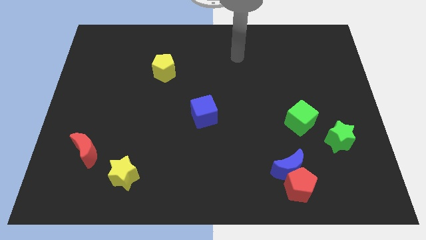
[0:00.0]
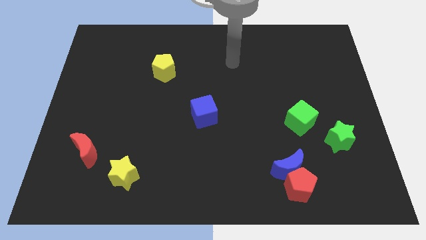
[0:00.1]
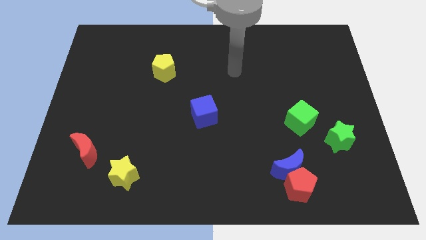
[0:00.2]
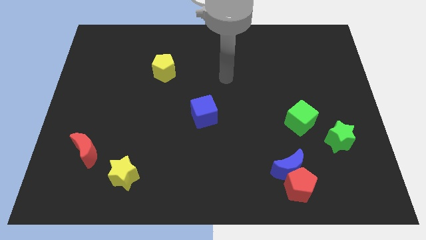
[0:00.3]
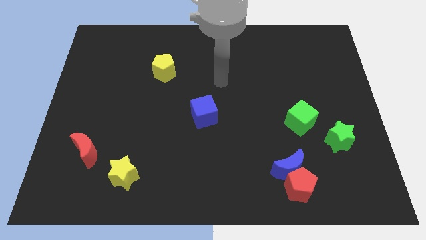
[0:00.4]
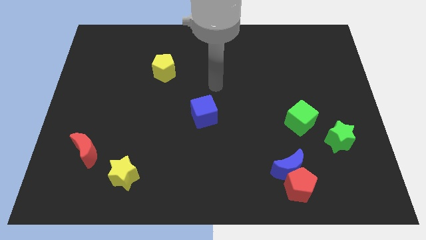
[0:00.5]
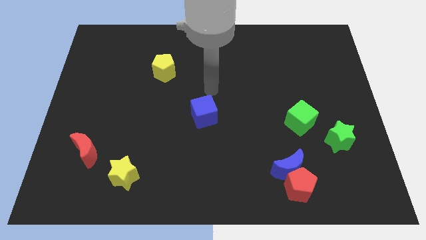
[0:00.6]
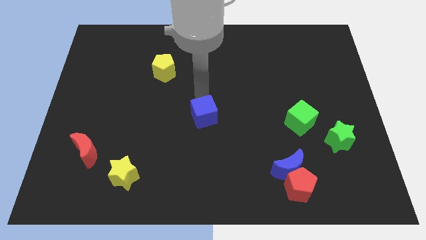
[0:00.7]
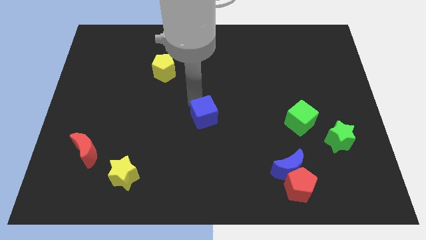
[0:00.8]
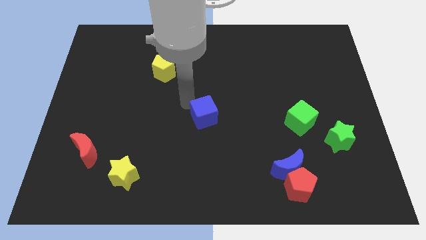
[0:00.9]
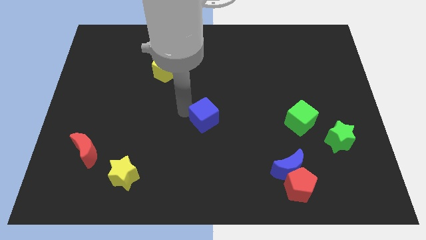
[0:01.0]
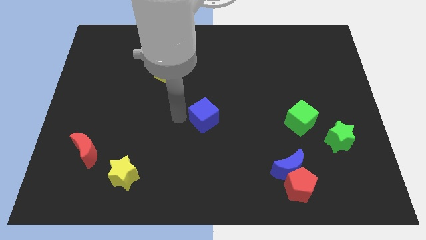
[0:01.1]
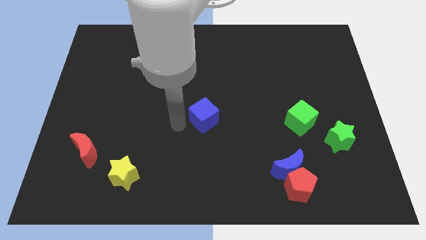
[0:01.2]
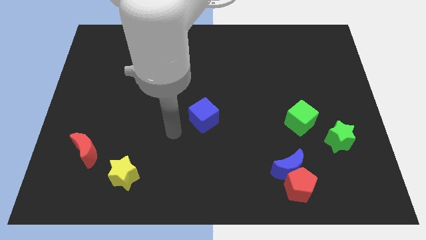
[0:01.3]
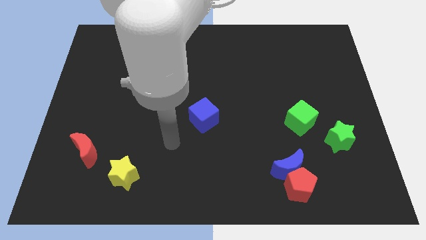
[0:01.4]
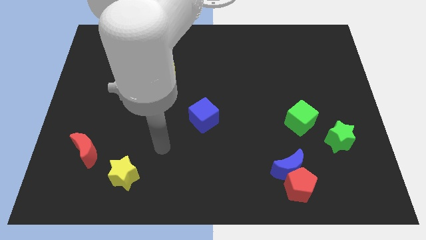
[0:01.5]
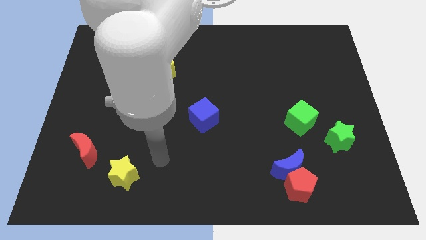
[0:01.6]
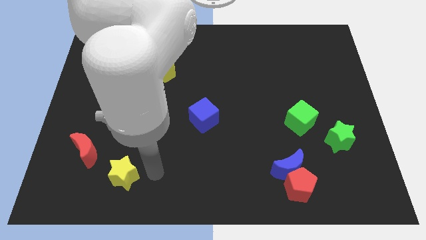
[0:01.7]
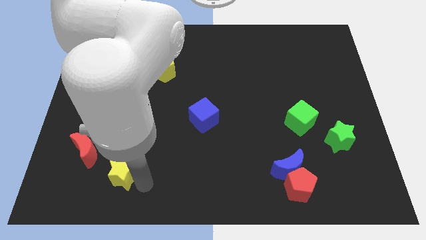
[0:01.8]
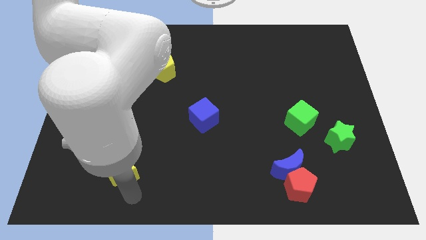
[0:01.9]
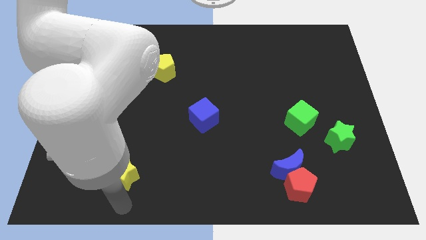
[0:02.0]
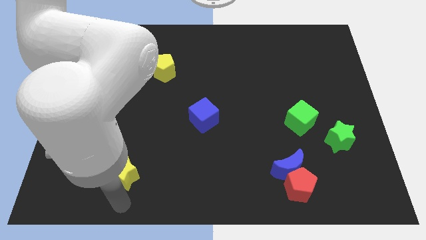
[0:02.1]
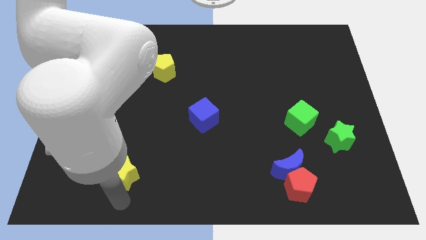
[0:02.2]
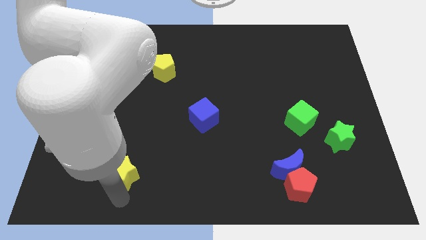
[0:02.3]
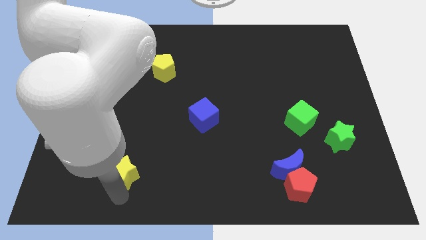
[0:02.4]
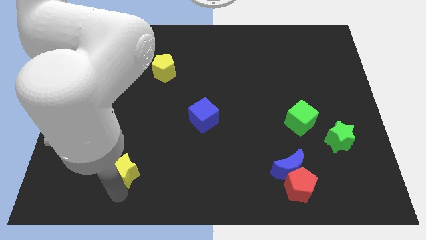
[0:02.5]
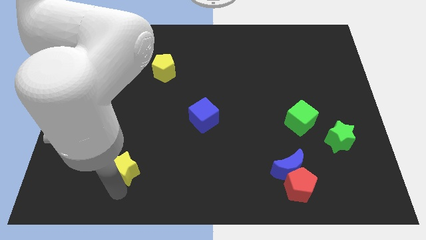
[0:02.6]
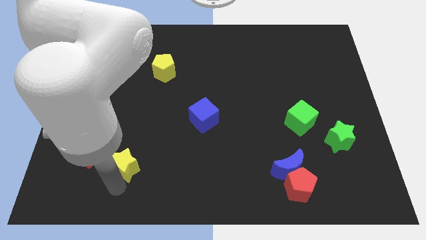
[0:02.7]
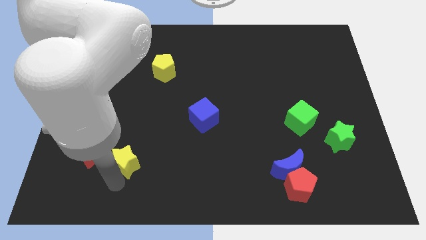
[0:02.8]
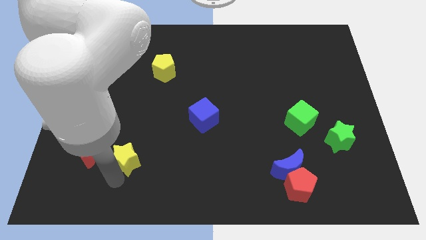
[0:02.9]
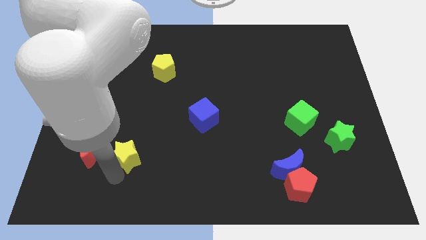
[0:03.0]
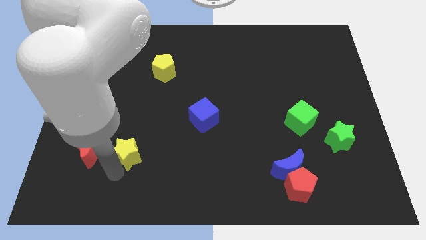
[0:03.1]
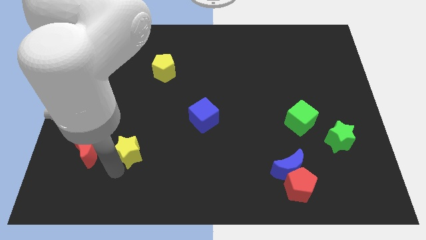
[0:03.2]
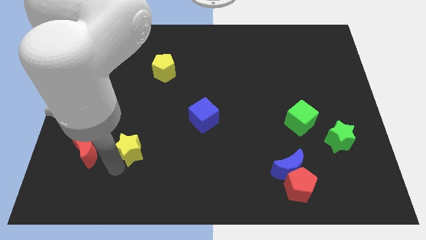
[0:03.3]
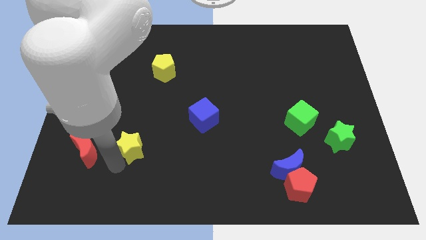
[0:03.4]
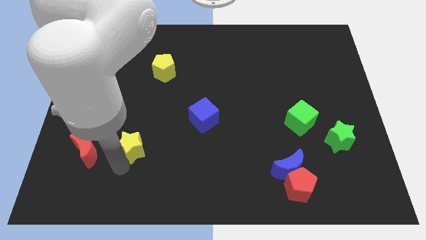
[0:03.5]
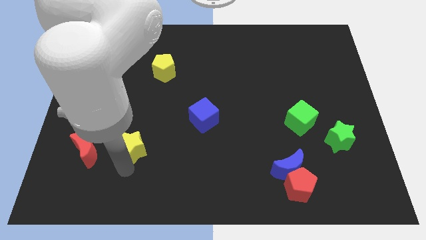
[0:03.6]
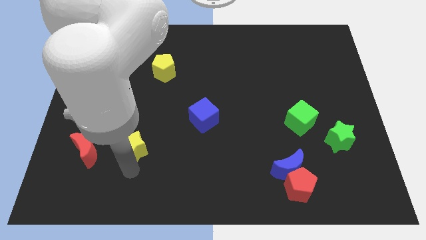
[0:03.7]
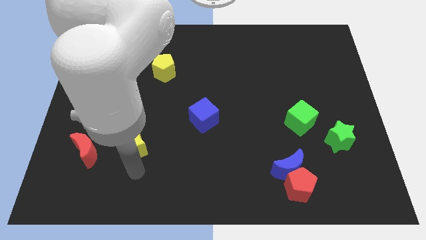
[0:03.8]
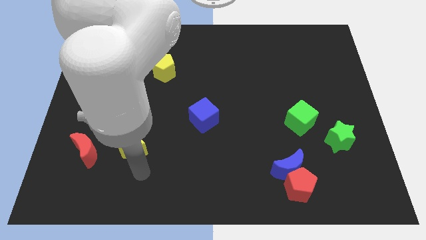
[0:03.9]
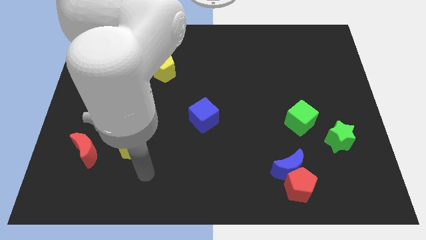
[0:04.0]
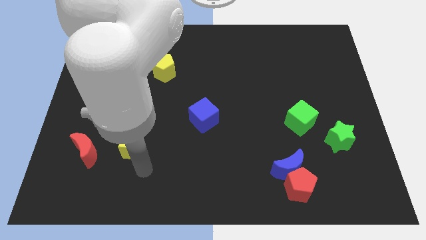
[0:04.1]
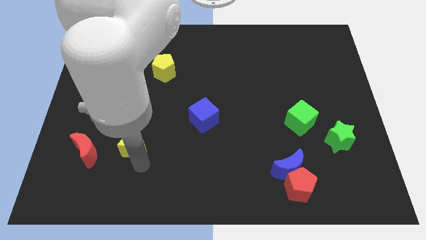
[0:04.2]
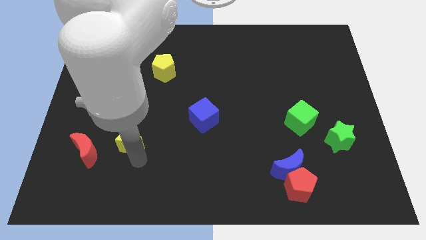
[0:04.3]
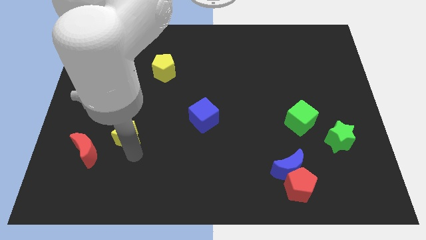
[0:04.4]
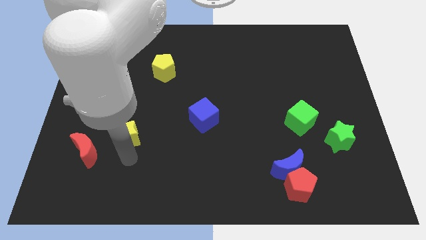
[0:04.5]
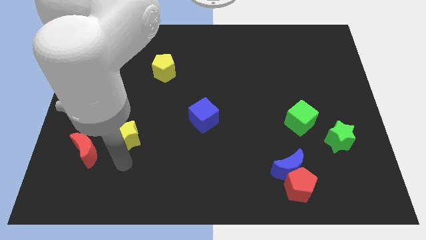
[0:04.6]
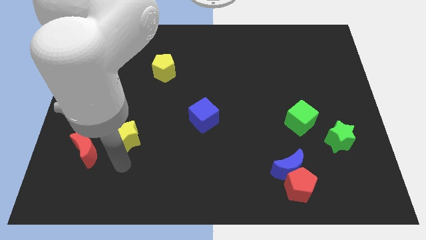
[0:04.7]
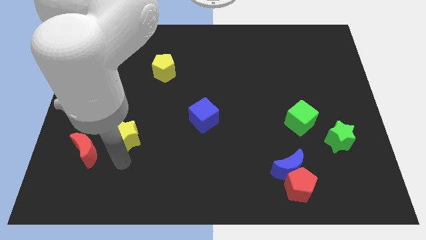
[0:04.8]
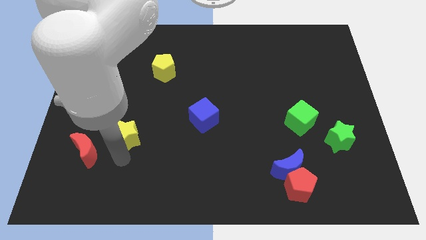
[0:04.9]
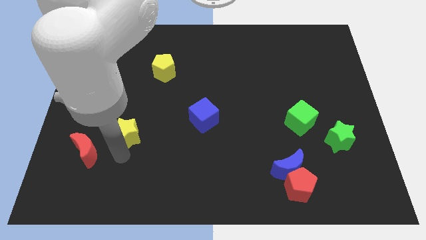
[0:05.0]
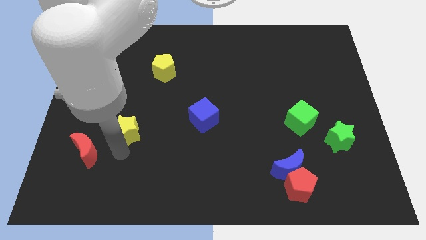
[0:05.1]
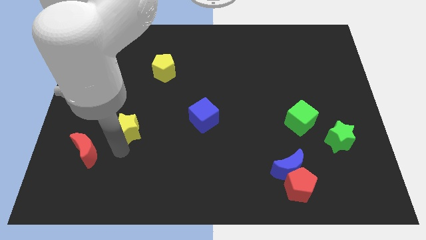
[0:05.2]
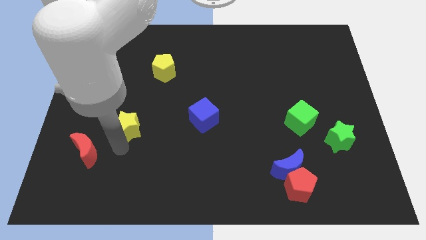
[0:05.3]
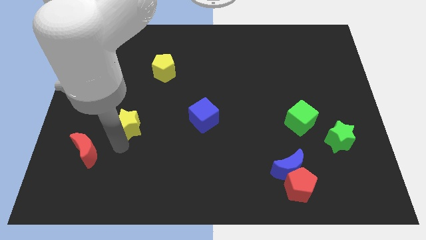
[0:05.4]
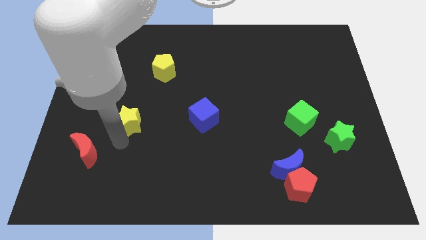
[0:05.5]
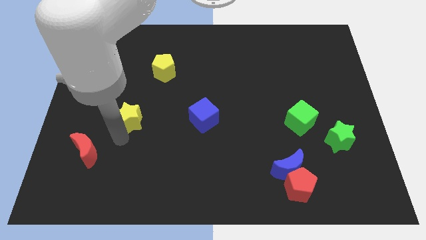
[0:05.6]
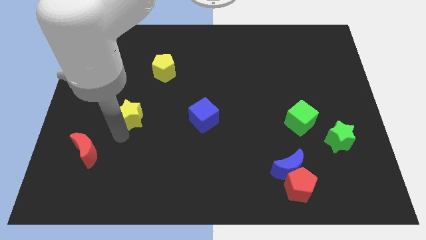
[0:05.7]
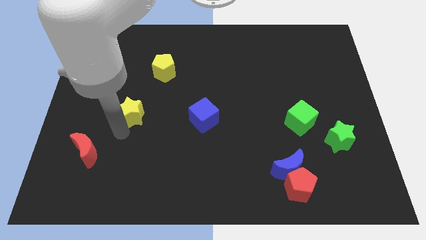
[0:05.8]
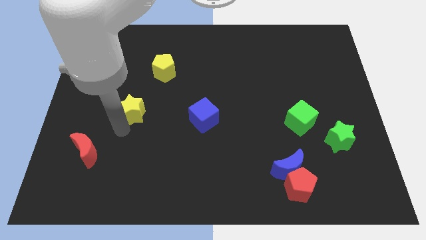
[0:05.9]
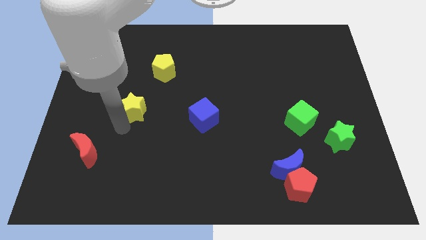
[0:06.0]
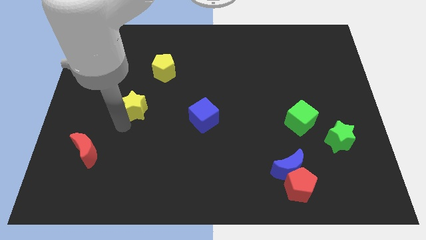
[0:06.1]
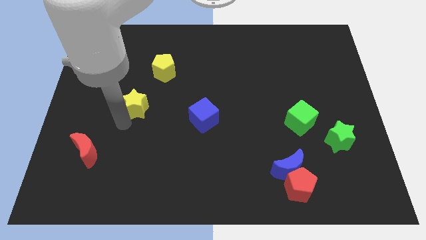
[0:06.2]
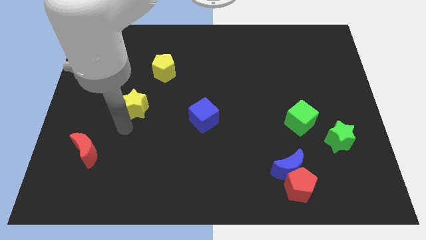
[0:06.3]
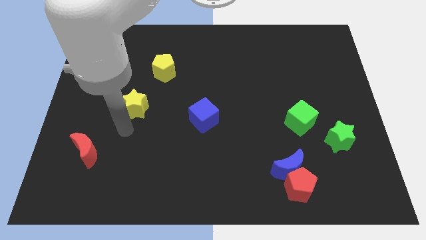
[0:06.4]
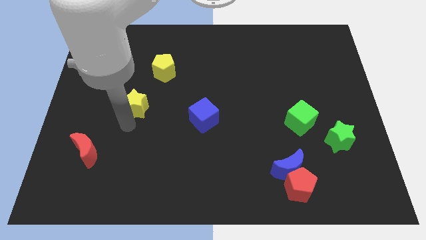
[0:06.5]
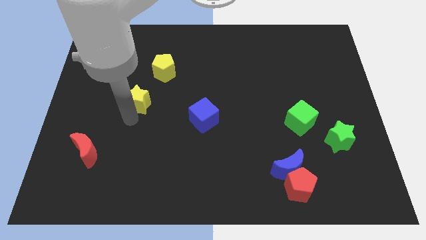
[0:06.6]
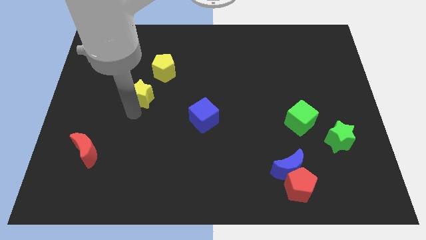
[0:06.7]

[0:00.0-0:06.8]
push the yellow star up

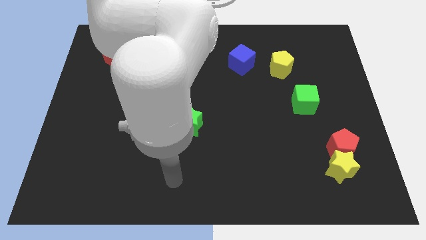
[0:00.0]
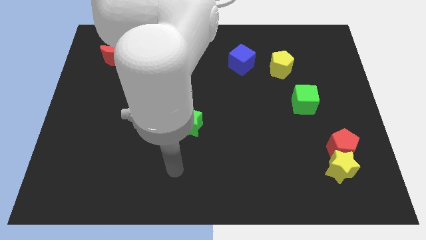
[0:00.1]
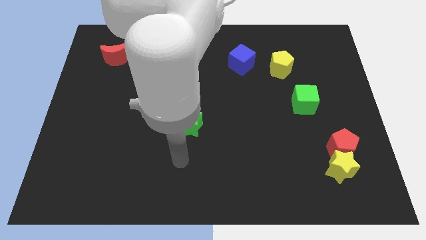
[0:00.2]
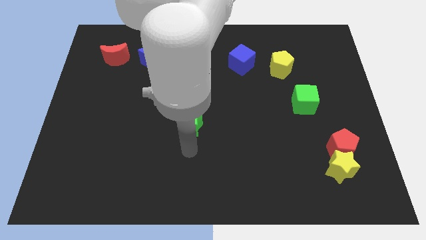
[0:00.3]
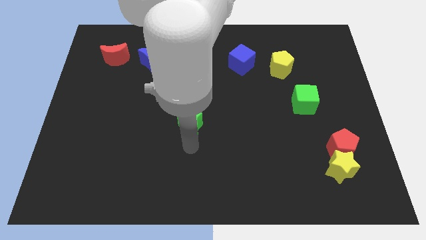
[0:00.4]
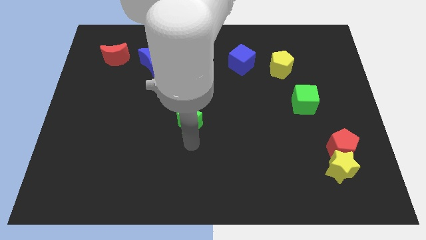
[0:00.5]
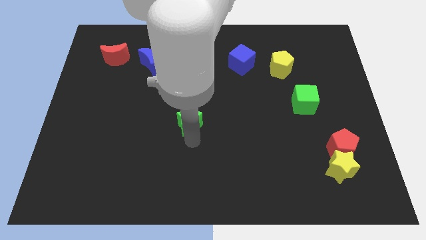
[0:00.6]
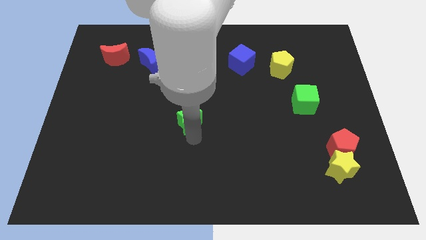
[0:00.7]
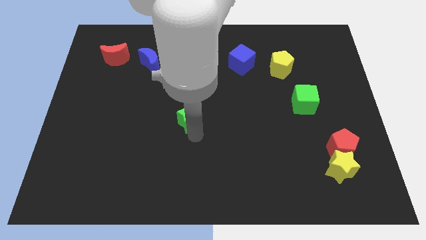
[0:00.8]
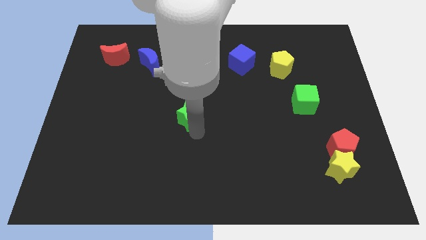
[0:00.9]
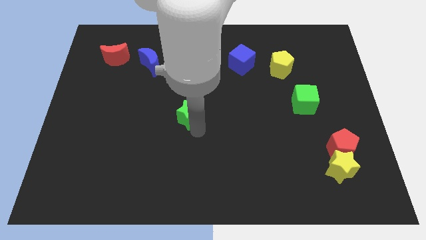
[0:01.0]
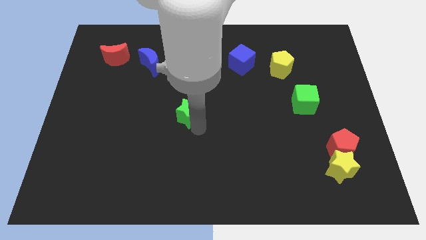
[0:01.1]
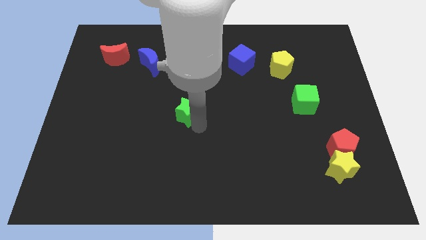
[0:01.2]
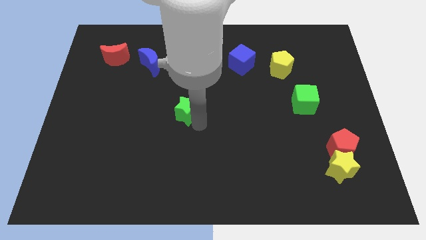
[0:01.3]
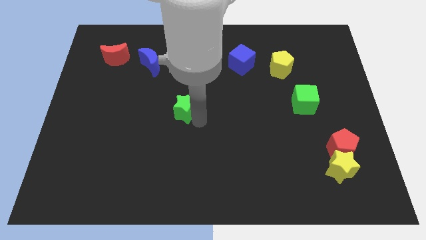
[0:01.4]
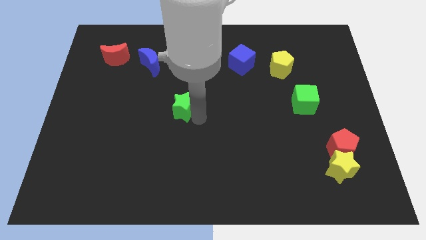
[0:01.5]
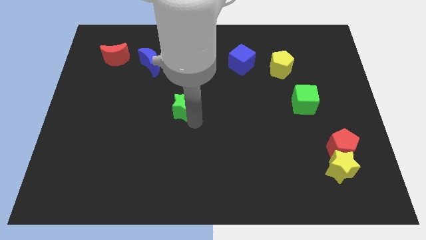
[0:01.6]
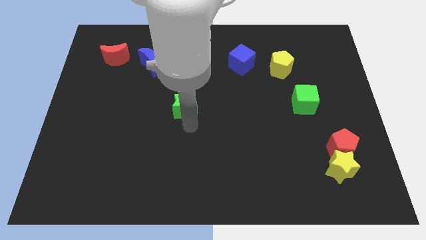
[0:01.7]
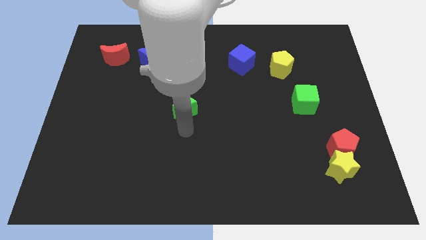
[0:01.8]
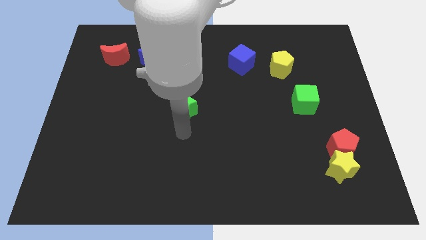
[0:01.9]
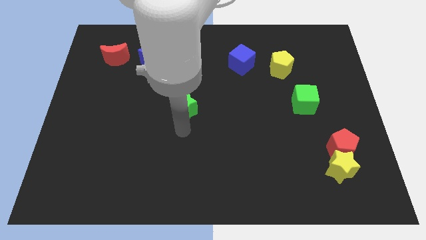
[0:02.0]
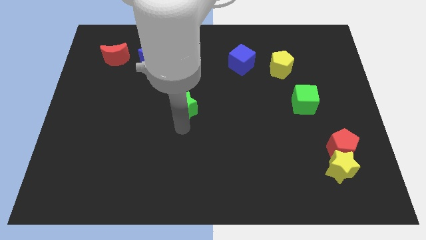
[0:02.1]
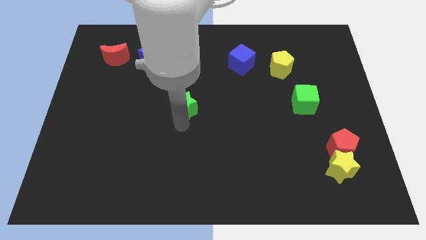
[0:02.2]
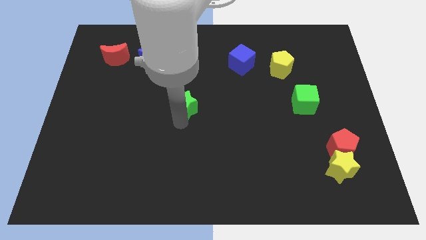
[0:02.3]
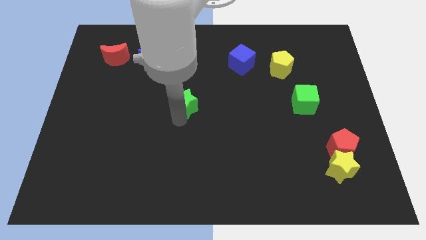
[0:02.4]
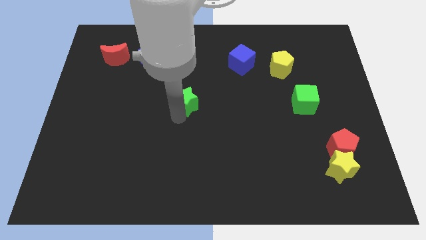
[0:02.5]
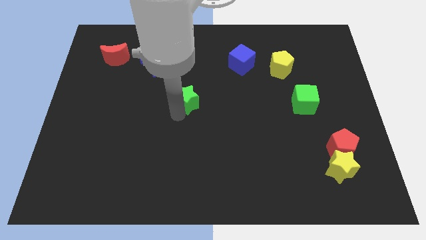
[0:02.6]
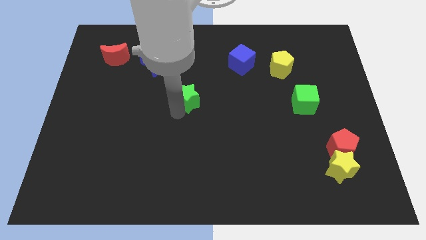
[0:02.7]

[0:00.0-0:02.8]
slightly slide the green star up
